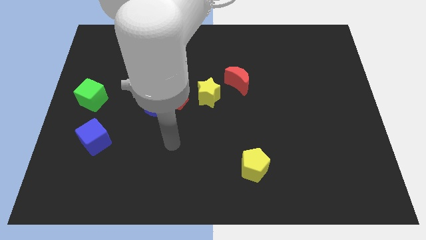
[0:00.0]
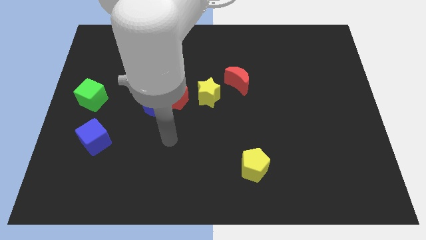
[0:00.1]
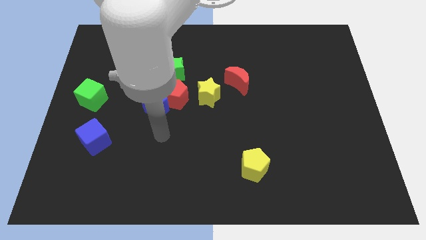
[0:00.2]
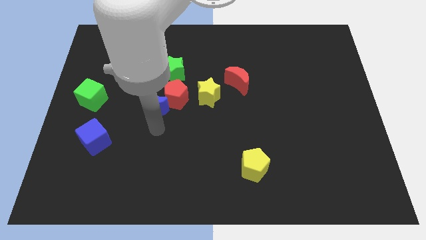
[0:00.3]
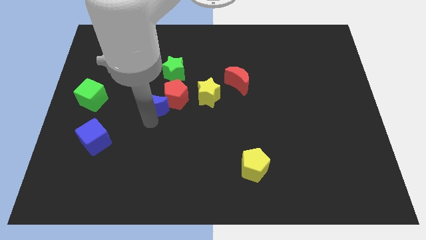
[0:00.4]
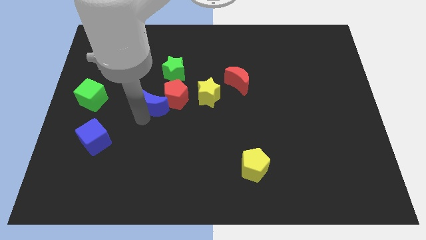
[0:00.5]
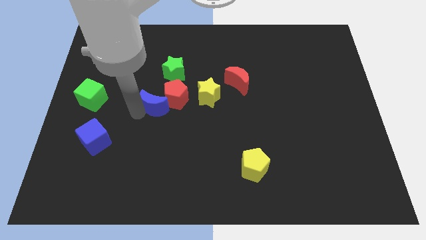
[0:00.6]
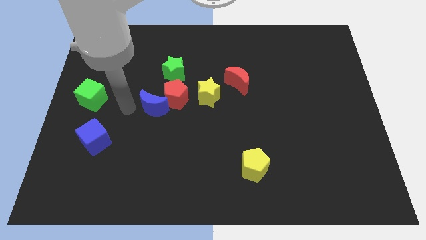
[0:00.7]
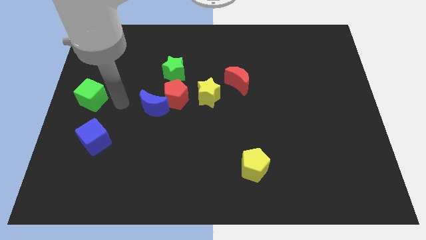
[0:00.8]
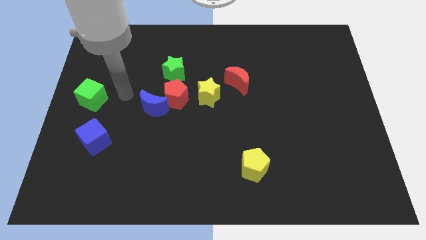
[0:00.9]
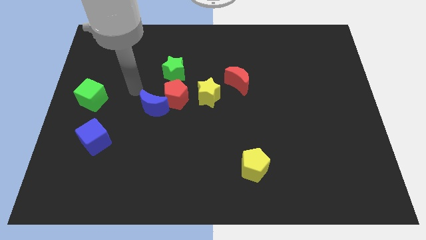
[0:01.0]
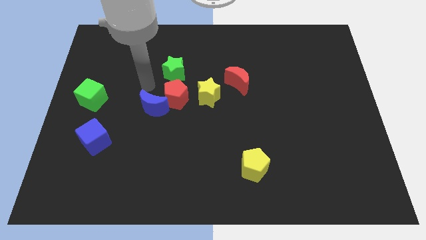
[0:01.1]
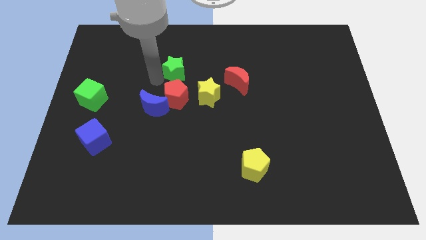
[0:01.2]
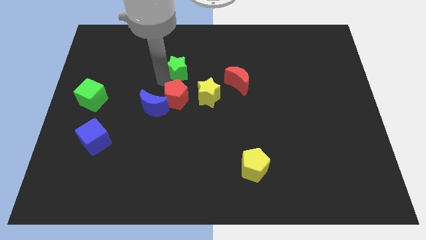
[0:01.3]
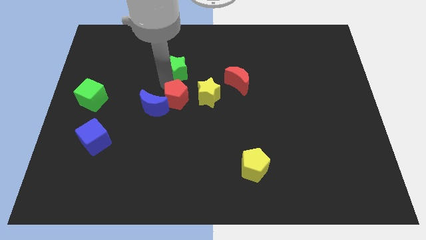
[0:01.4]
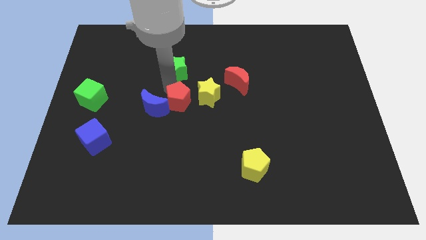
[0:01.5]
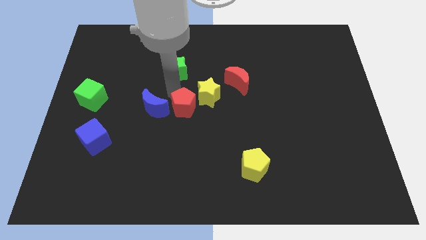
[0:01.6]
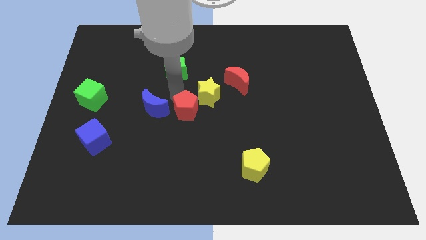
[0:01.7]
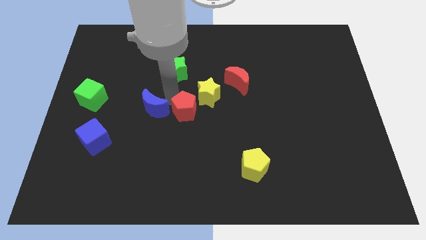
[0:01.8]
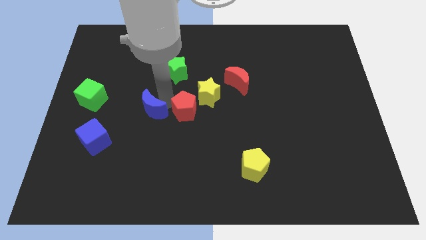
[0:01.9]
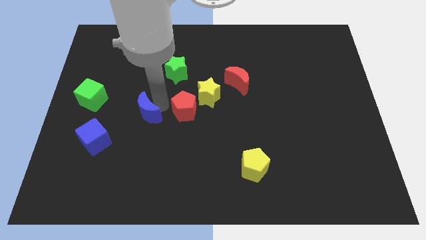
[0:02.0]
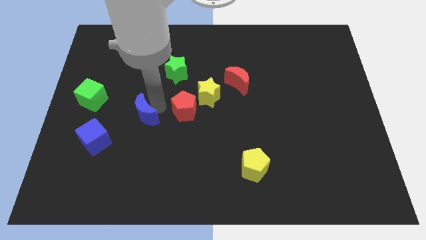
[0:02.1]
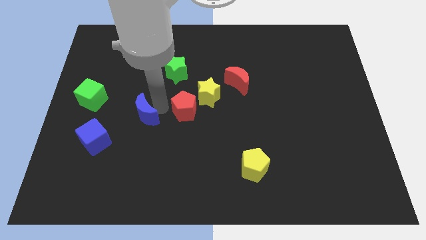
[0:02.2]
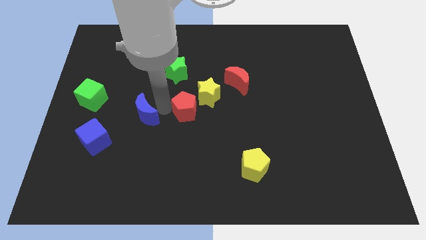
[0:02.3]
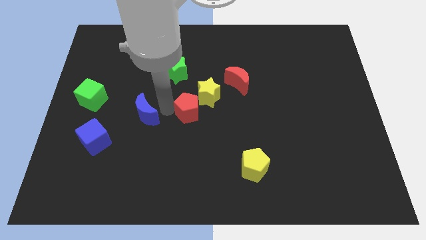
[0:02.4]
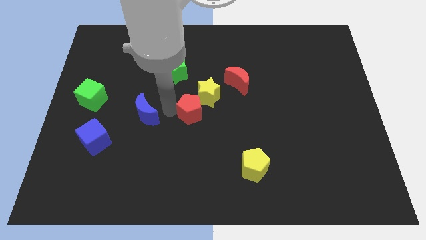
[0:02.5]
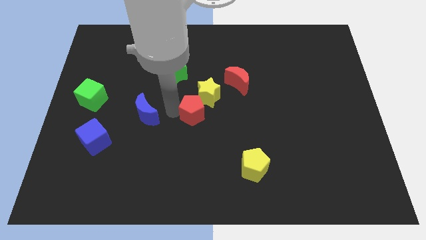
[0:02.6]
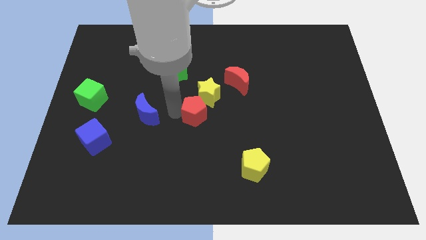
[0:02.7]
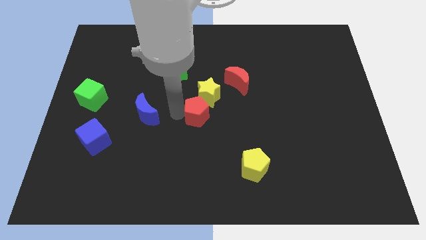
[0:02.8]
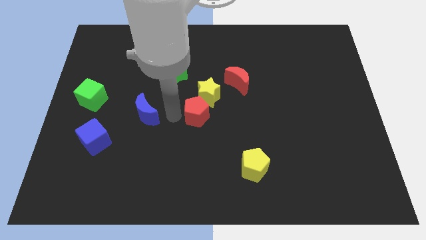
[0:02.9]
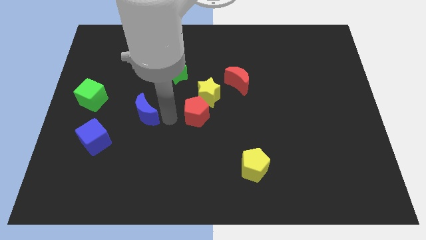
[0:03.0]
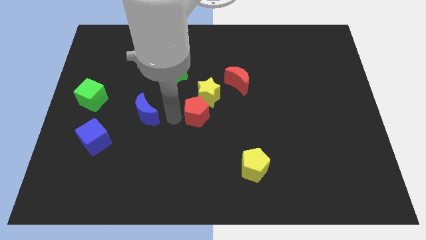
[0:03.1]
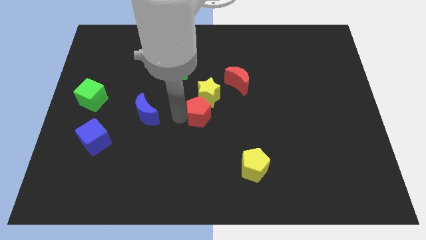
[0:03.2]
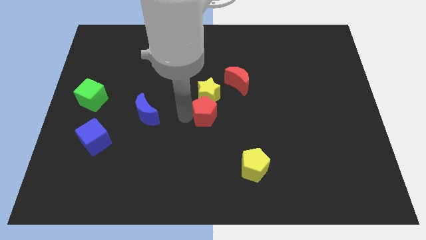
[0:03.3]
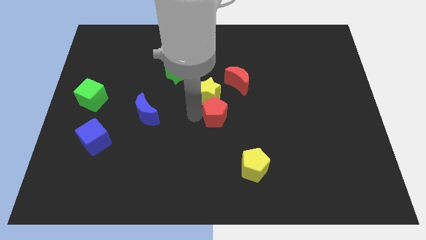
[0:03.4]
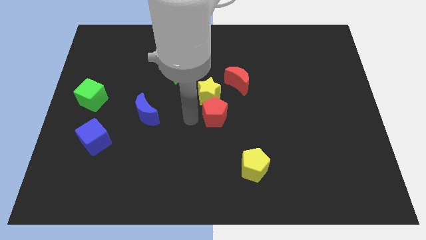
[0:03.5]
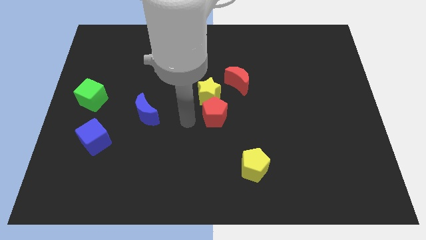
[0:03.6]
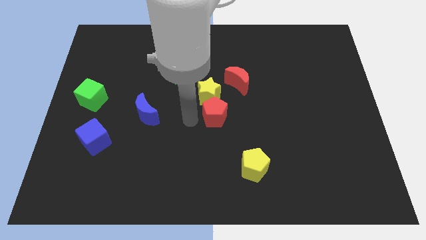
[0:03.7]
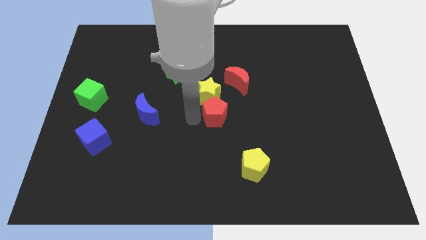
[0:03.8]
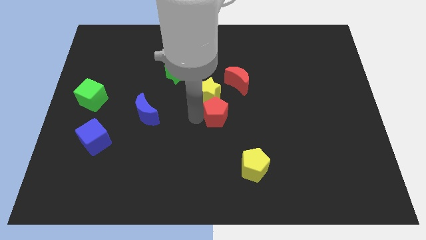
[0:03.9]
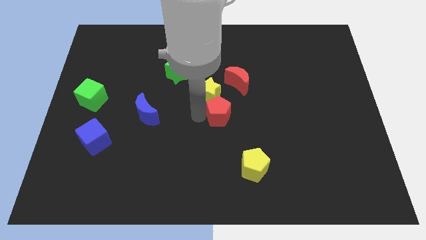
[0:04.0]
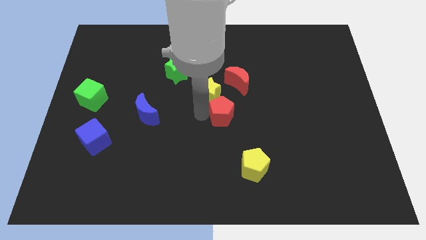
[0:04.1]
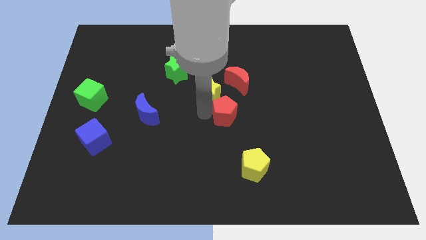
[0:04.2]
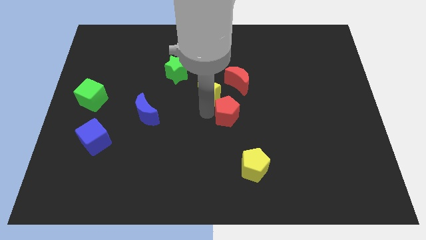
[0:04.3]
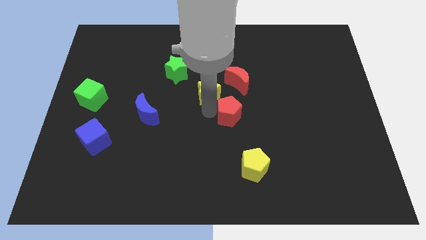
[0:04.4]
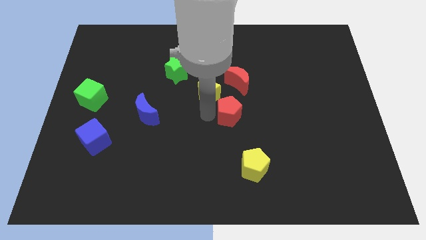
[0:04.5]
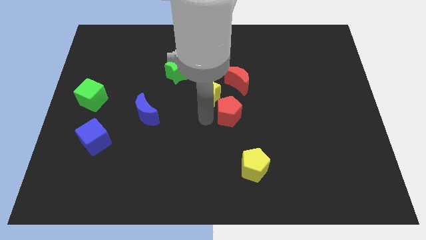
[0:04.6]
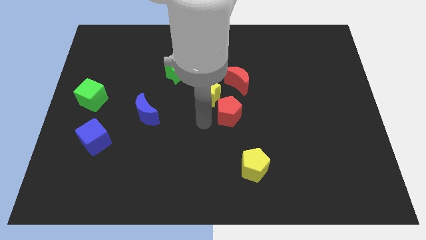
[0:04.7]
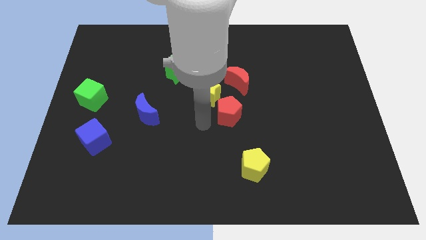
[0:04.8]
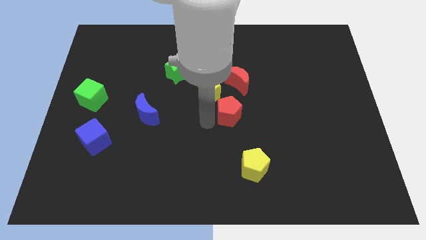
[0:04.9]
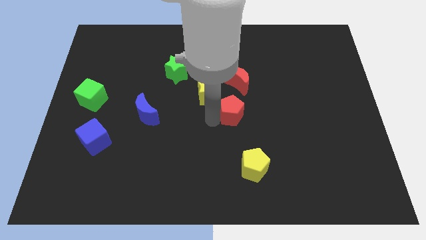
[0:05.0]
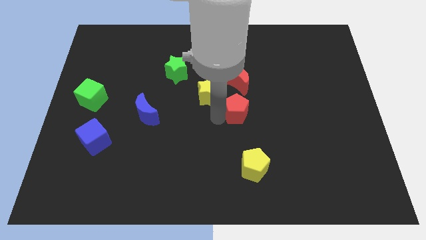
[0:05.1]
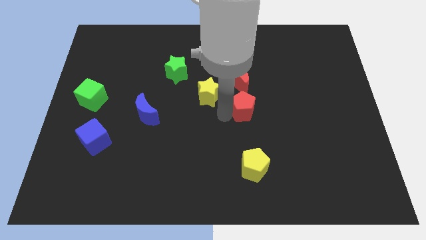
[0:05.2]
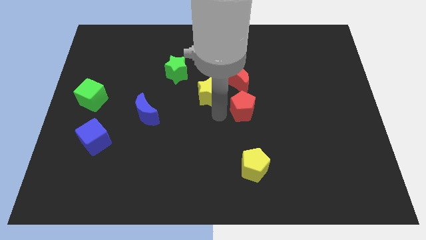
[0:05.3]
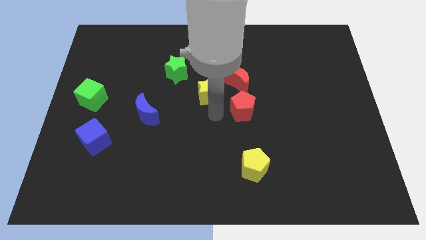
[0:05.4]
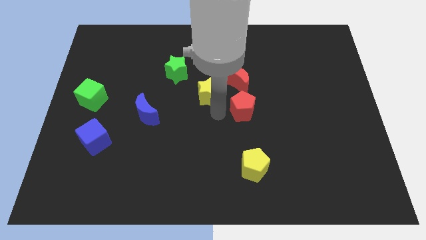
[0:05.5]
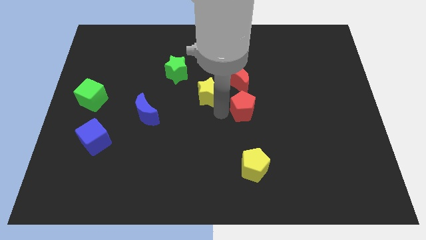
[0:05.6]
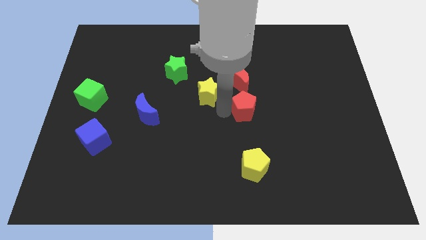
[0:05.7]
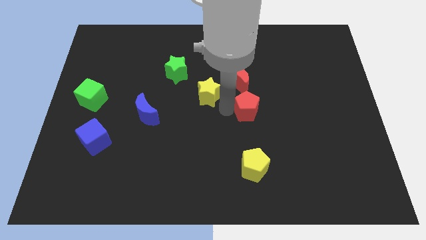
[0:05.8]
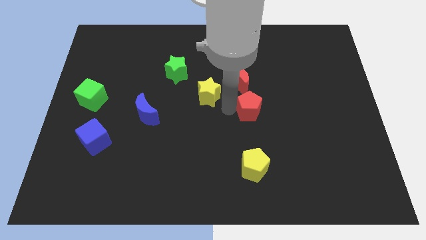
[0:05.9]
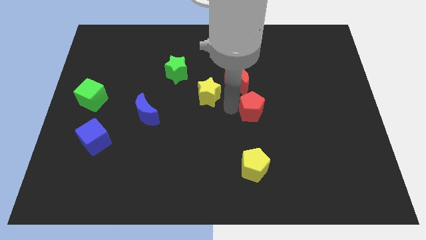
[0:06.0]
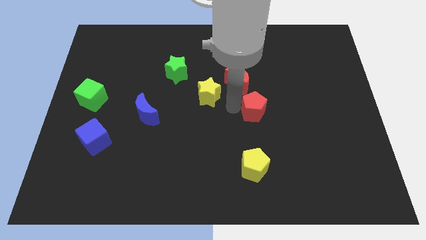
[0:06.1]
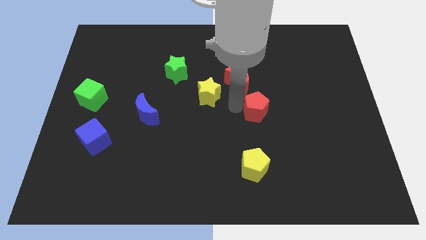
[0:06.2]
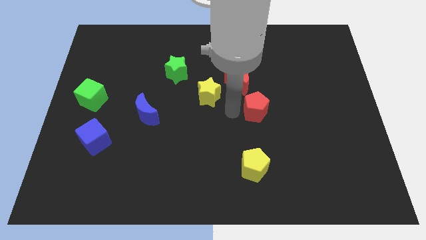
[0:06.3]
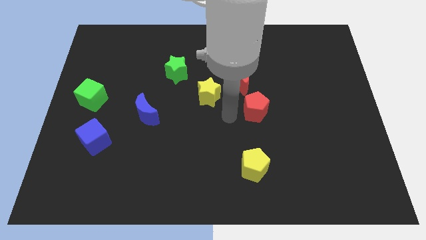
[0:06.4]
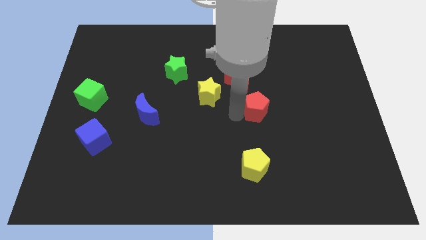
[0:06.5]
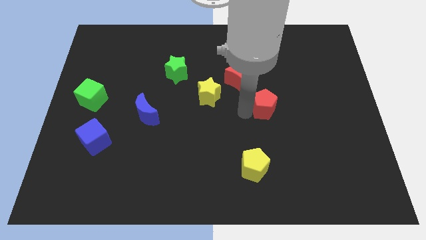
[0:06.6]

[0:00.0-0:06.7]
slide the red pentagon to the right
